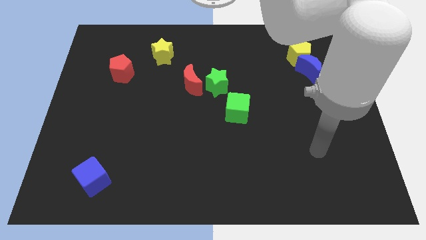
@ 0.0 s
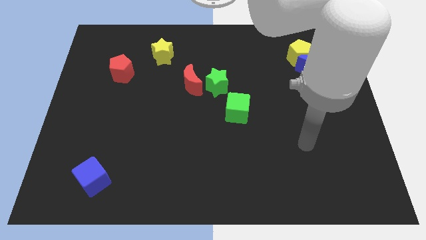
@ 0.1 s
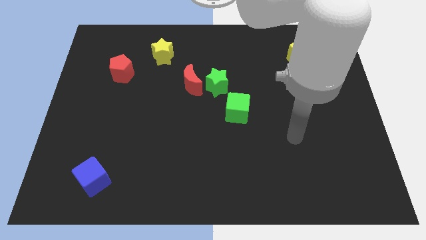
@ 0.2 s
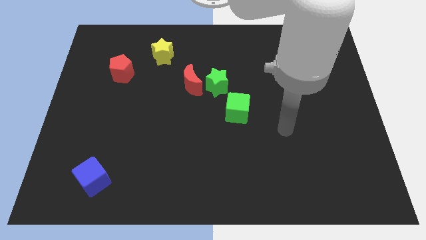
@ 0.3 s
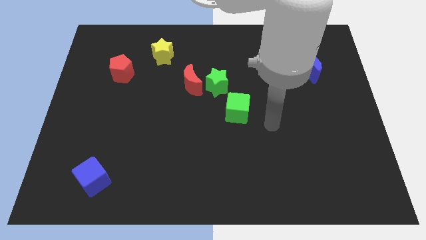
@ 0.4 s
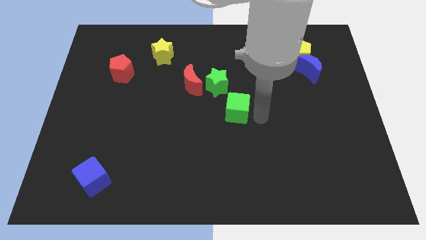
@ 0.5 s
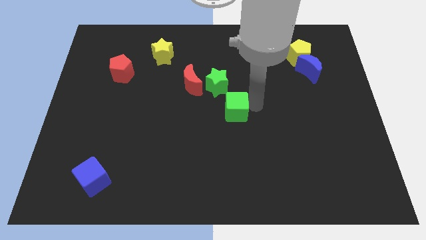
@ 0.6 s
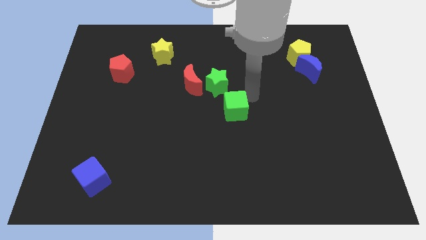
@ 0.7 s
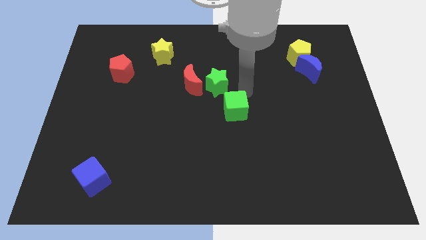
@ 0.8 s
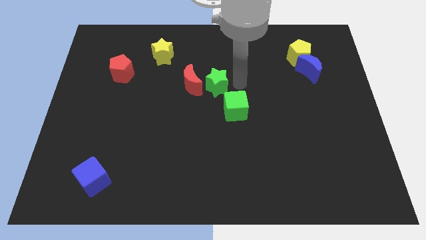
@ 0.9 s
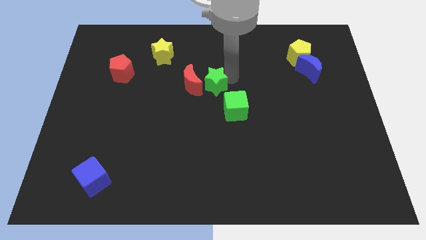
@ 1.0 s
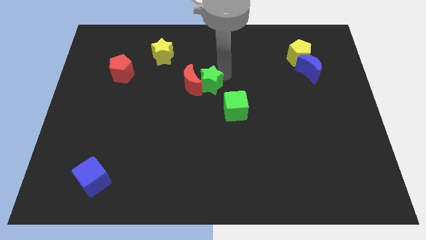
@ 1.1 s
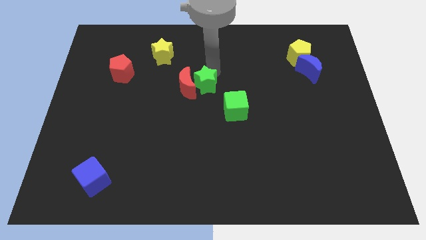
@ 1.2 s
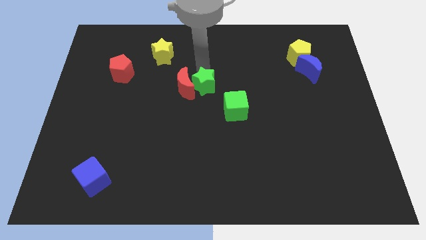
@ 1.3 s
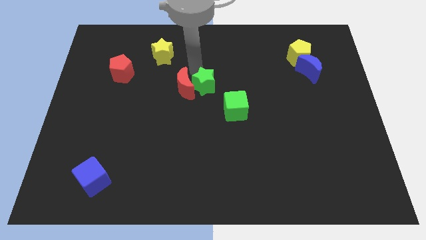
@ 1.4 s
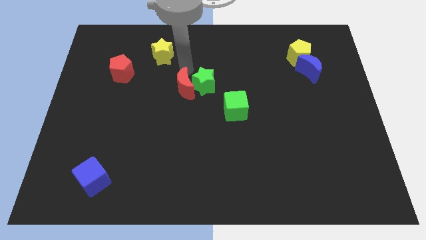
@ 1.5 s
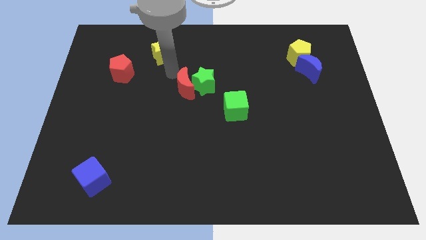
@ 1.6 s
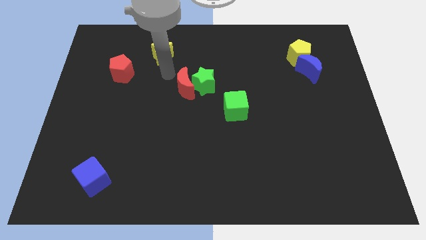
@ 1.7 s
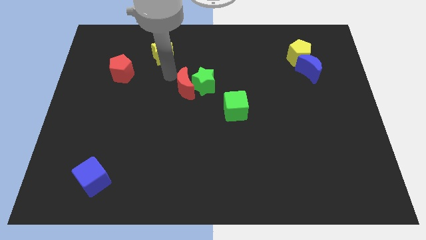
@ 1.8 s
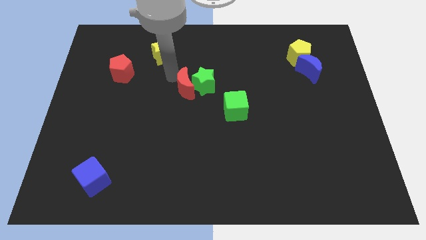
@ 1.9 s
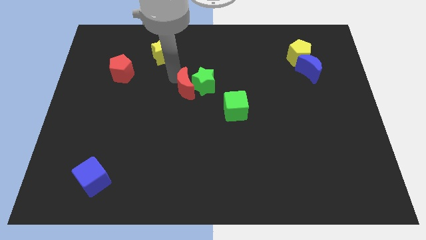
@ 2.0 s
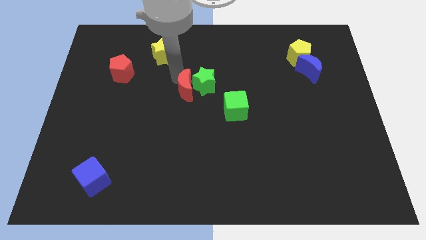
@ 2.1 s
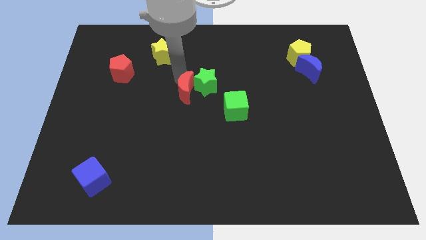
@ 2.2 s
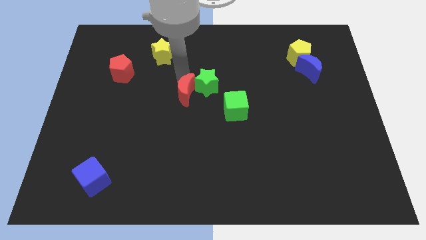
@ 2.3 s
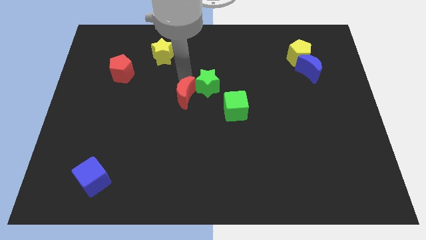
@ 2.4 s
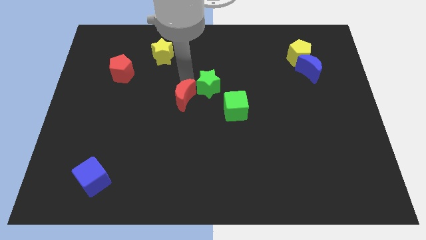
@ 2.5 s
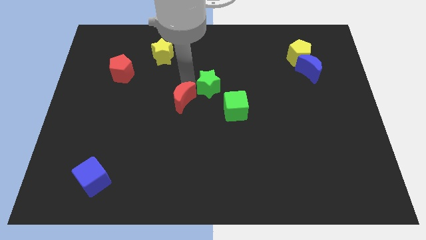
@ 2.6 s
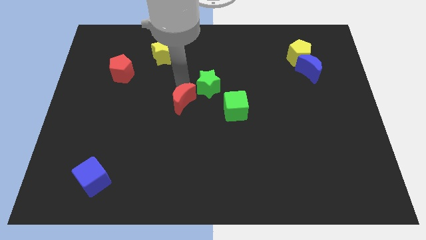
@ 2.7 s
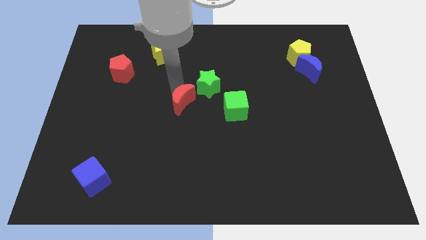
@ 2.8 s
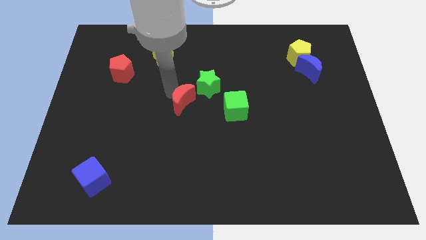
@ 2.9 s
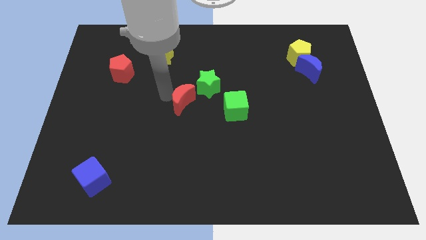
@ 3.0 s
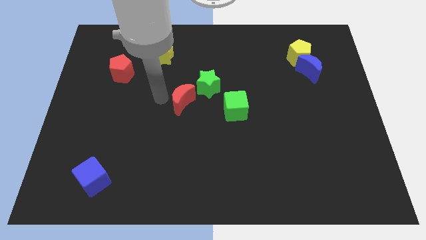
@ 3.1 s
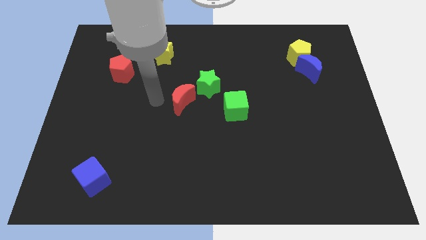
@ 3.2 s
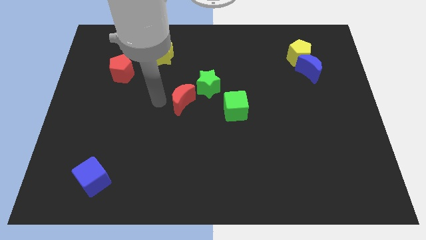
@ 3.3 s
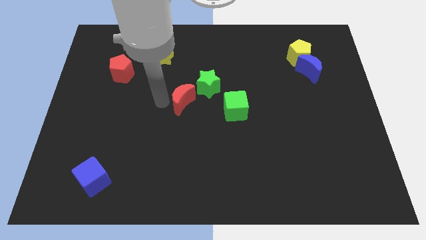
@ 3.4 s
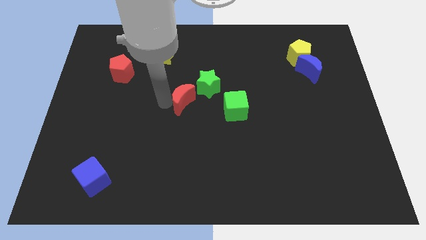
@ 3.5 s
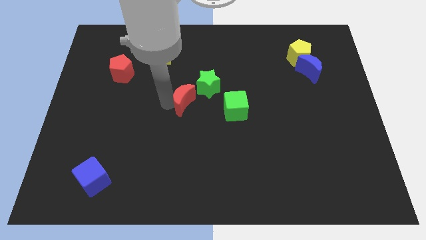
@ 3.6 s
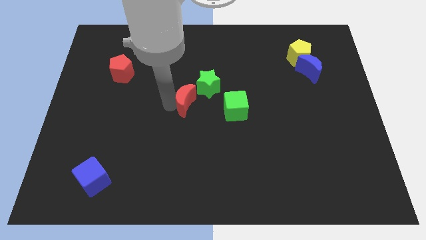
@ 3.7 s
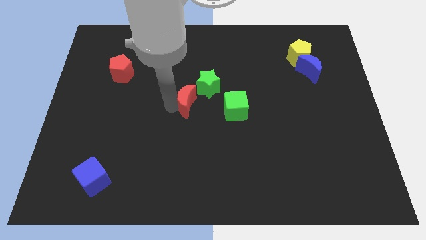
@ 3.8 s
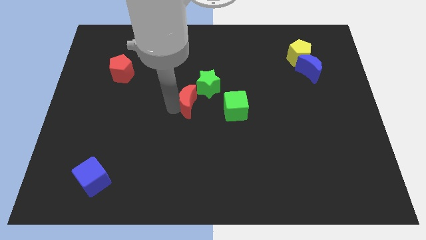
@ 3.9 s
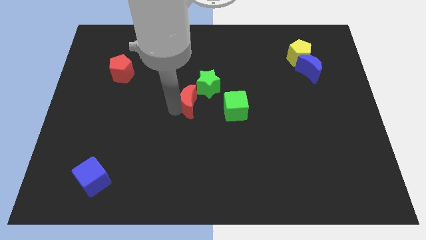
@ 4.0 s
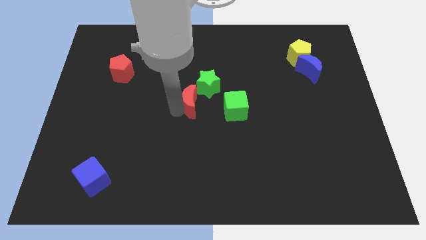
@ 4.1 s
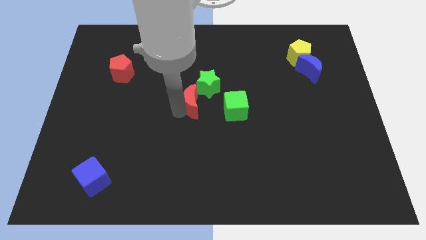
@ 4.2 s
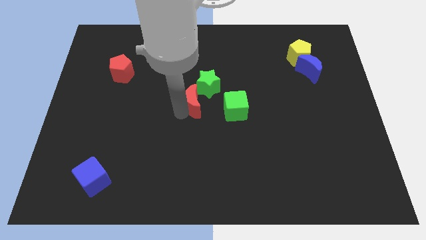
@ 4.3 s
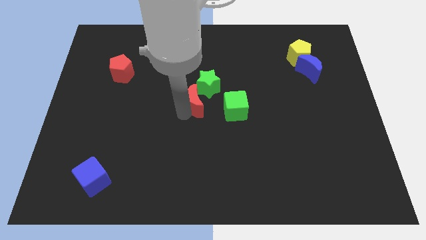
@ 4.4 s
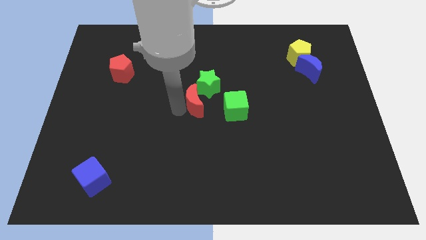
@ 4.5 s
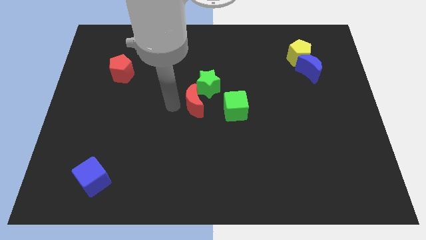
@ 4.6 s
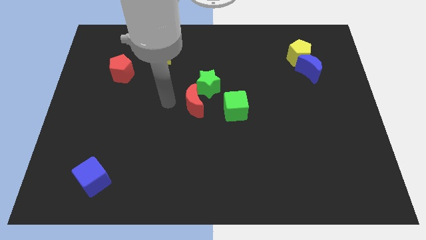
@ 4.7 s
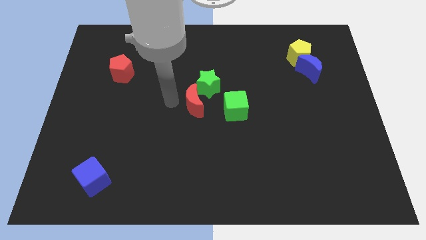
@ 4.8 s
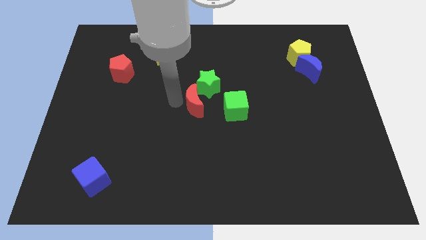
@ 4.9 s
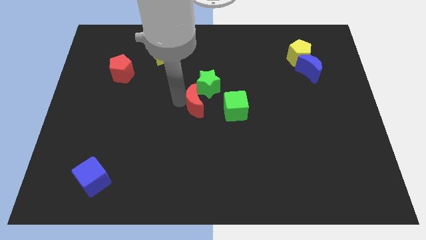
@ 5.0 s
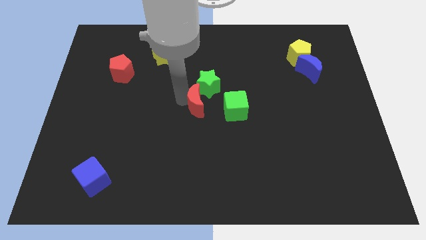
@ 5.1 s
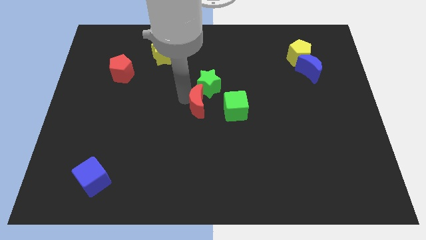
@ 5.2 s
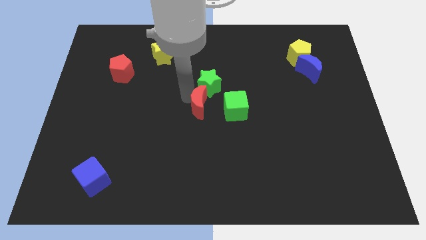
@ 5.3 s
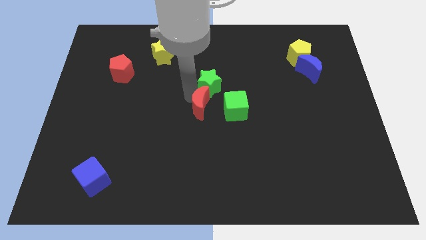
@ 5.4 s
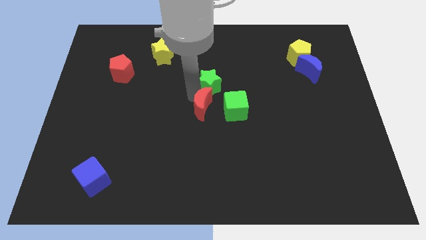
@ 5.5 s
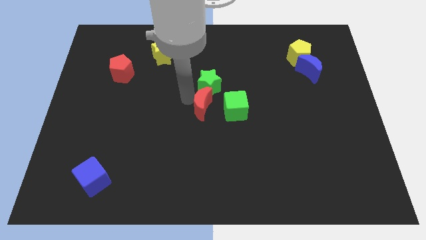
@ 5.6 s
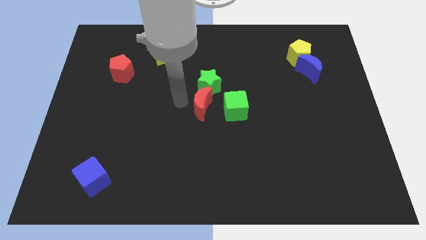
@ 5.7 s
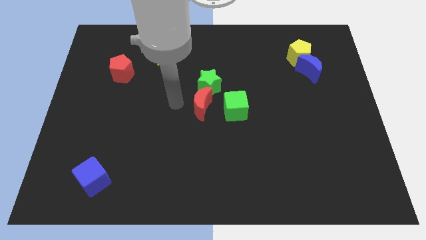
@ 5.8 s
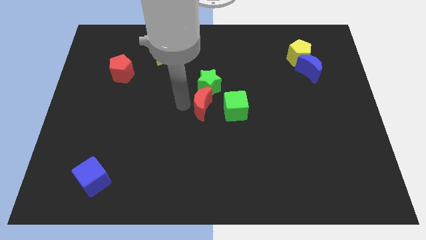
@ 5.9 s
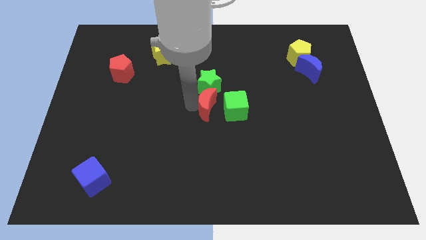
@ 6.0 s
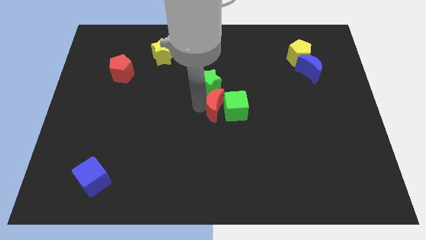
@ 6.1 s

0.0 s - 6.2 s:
push the red moon close to the green cube

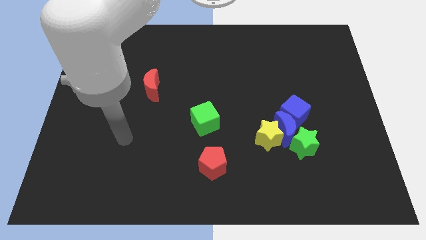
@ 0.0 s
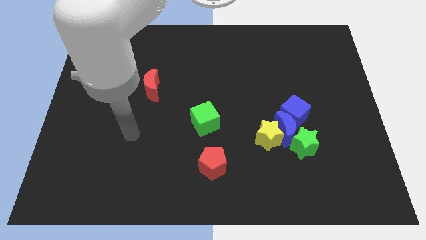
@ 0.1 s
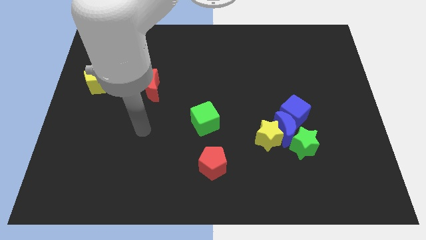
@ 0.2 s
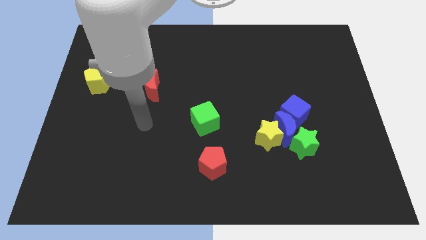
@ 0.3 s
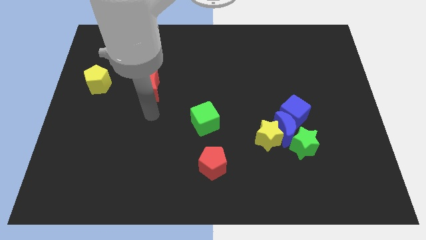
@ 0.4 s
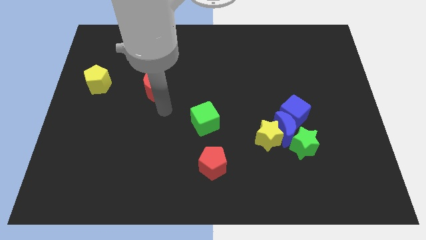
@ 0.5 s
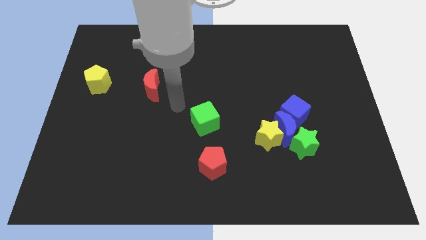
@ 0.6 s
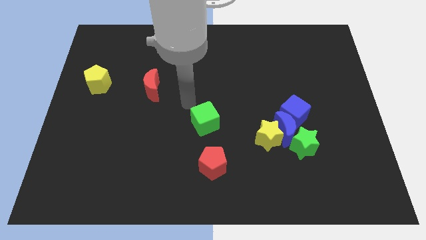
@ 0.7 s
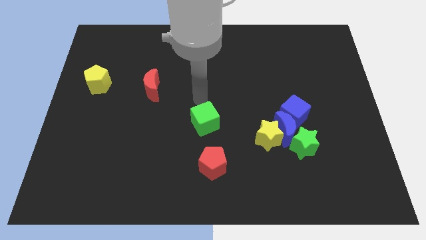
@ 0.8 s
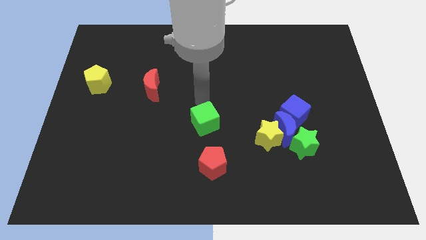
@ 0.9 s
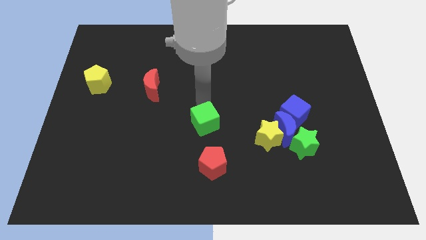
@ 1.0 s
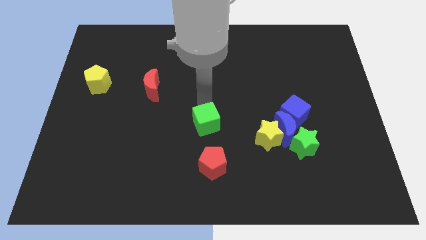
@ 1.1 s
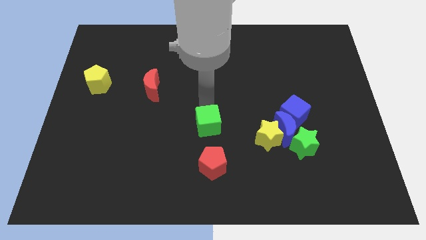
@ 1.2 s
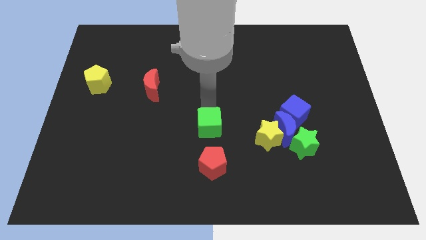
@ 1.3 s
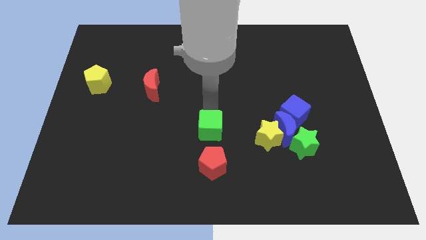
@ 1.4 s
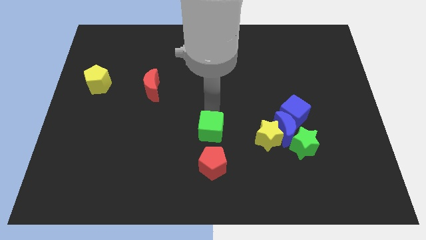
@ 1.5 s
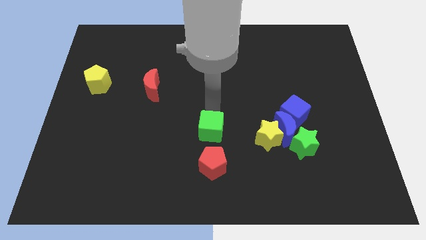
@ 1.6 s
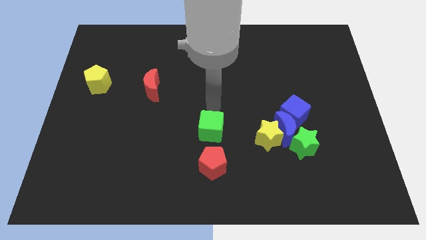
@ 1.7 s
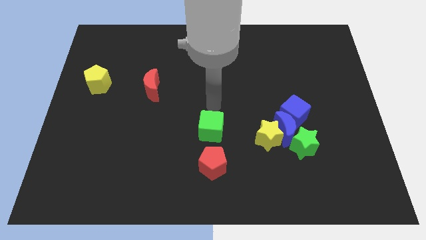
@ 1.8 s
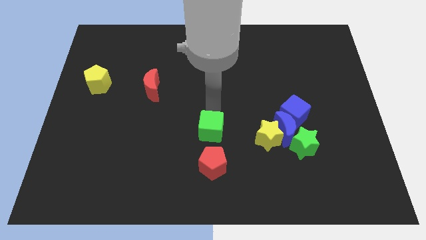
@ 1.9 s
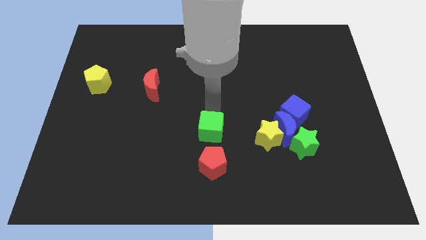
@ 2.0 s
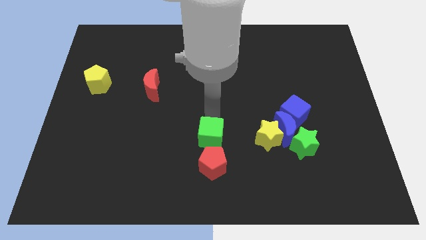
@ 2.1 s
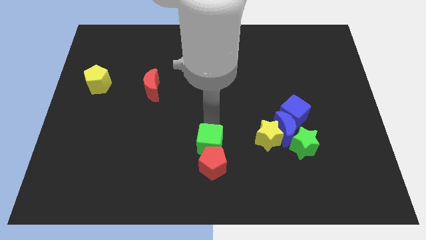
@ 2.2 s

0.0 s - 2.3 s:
move the green cube towards the red pentagon
